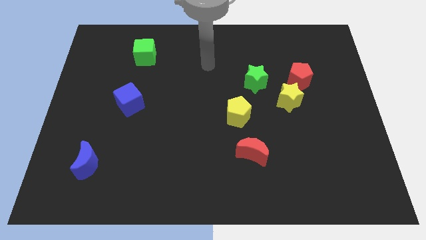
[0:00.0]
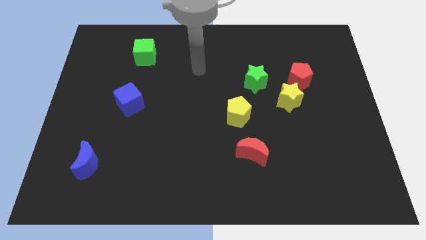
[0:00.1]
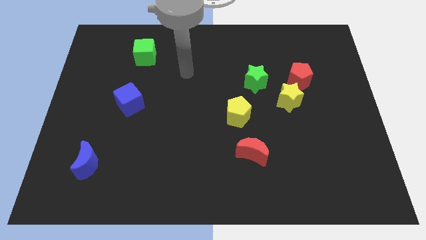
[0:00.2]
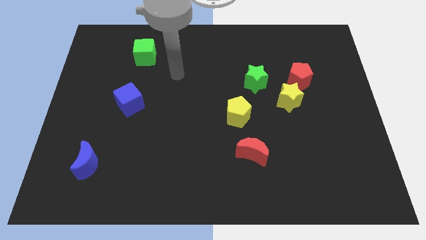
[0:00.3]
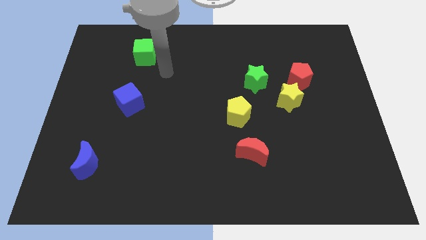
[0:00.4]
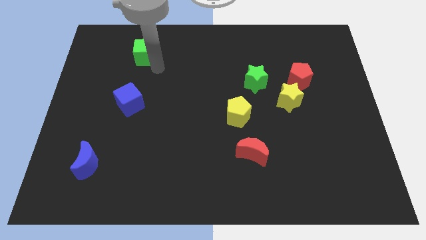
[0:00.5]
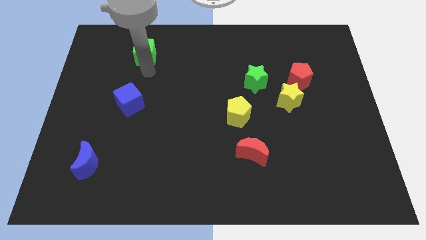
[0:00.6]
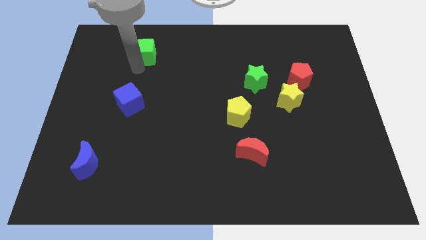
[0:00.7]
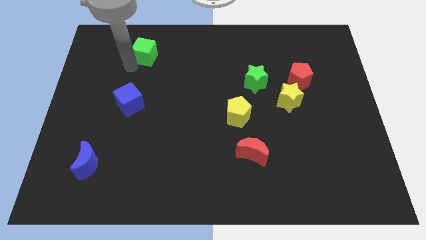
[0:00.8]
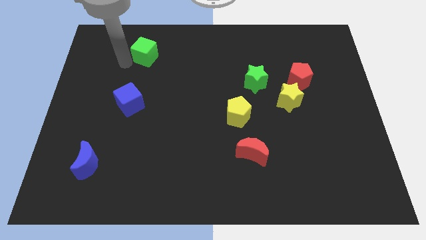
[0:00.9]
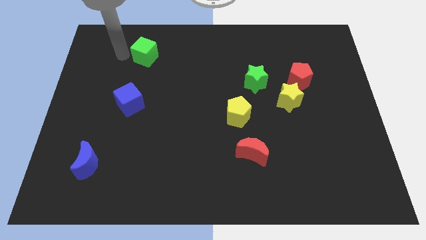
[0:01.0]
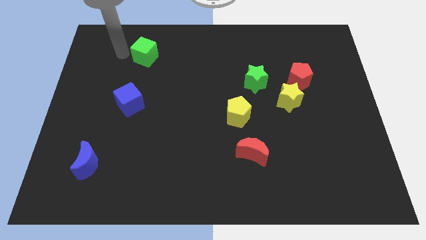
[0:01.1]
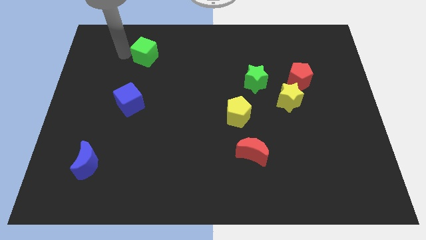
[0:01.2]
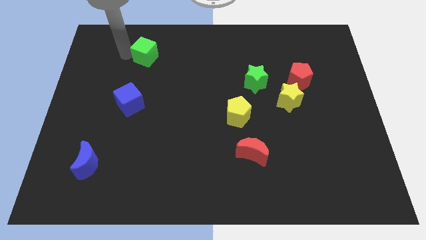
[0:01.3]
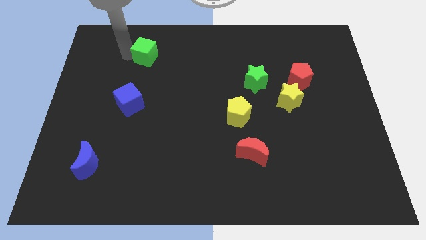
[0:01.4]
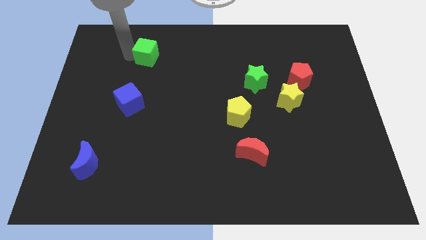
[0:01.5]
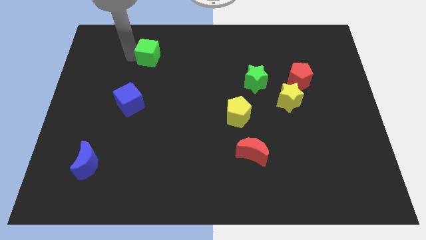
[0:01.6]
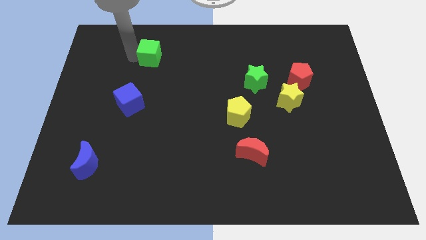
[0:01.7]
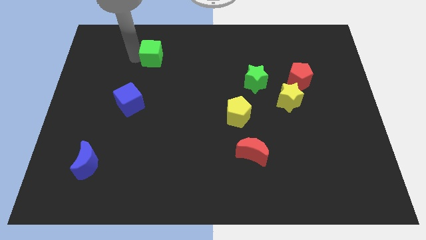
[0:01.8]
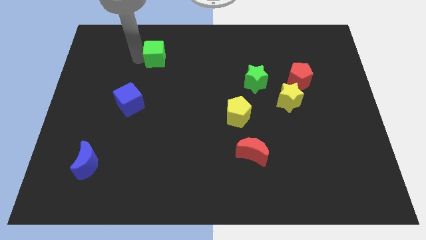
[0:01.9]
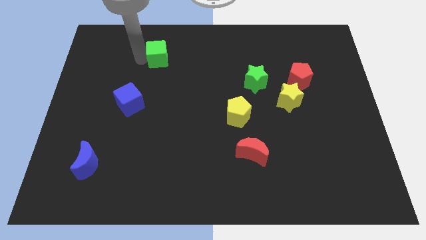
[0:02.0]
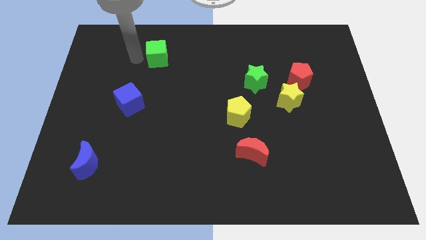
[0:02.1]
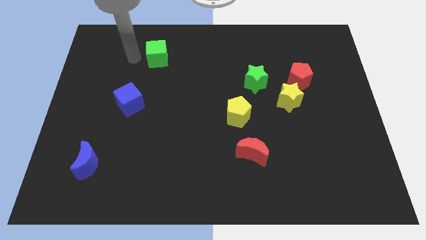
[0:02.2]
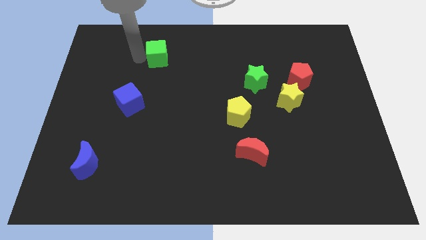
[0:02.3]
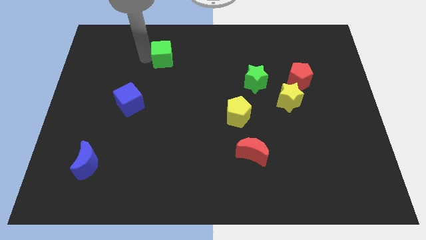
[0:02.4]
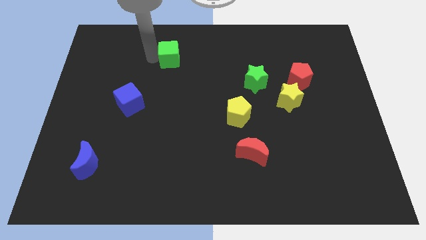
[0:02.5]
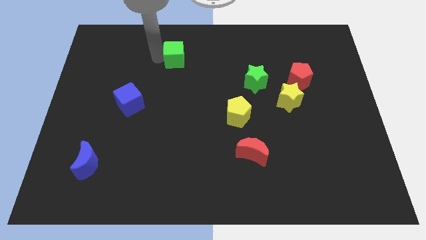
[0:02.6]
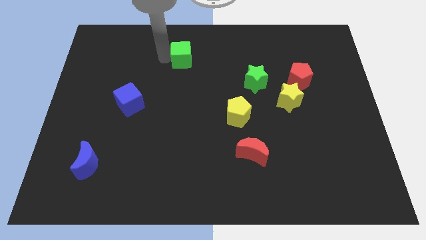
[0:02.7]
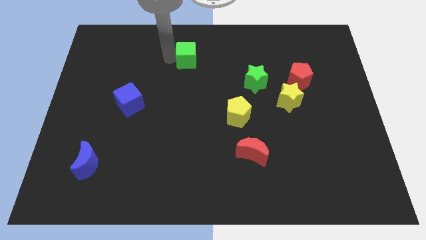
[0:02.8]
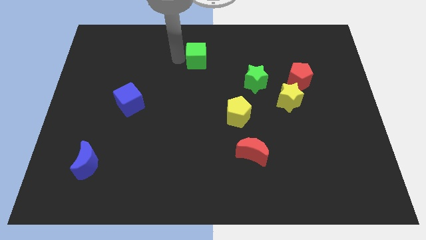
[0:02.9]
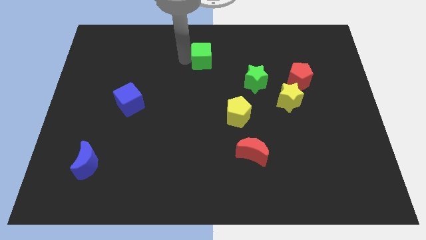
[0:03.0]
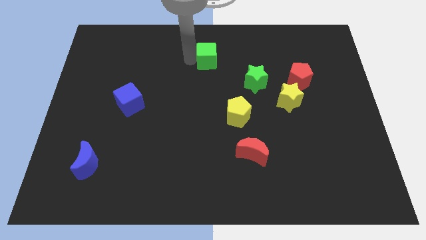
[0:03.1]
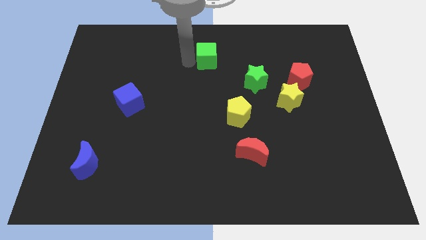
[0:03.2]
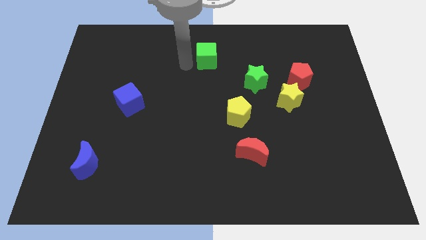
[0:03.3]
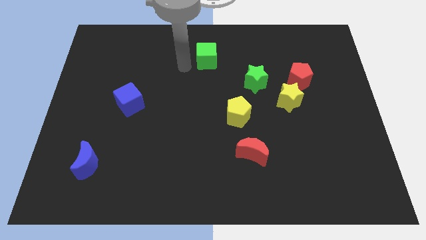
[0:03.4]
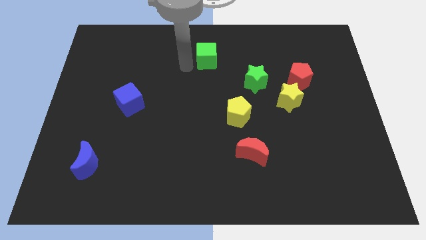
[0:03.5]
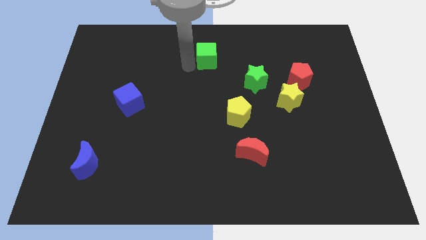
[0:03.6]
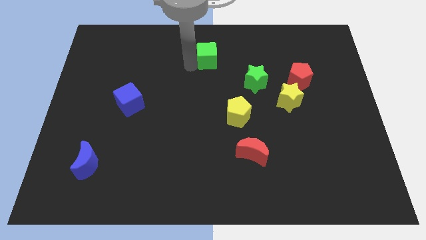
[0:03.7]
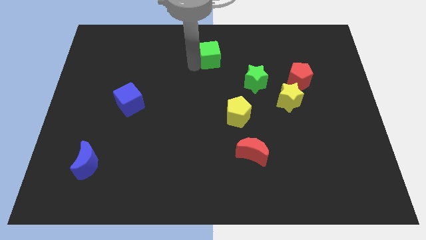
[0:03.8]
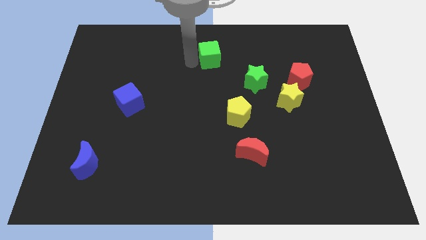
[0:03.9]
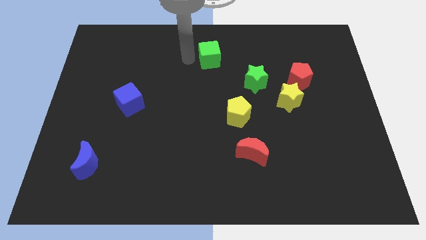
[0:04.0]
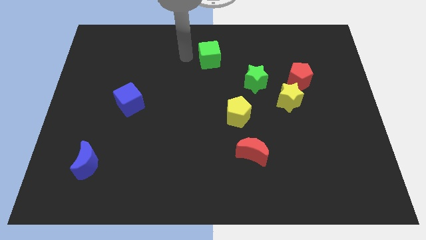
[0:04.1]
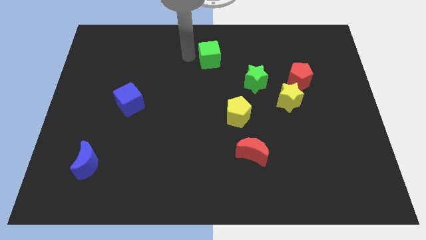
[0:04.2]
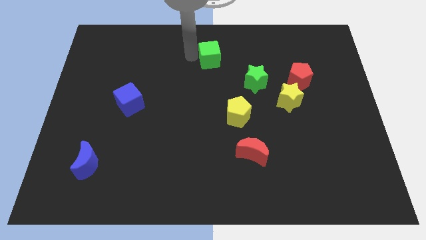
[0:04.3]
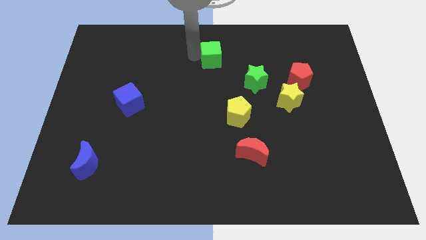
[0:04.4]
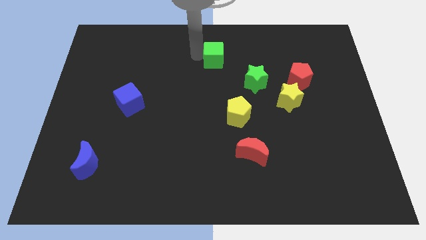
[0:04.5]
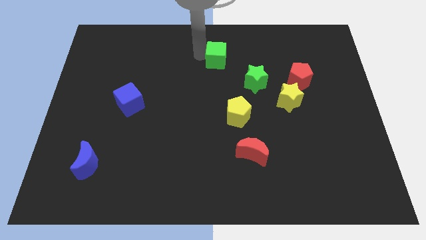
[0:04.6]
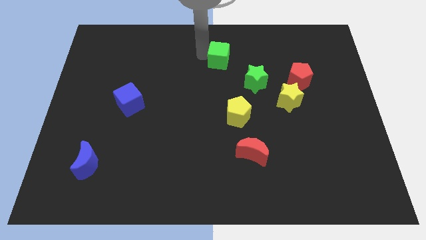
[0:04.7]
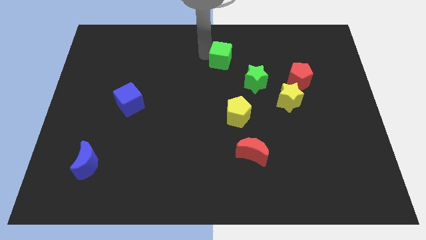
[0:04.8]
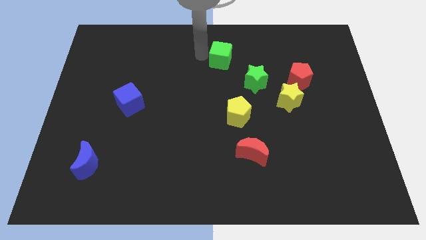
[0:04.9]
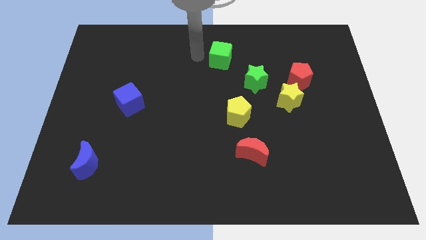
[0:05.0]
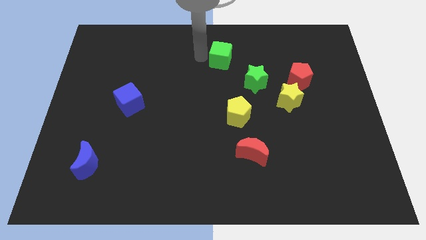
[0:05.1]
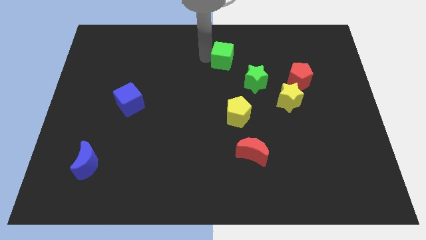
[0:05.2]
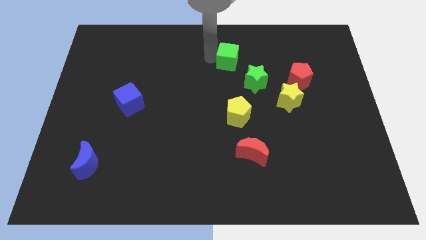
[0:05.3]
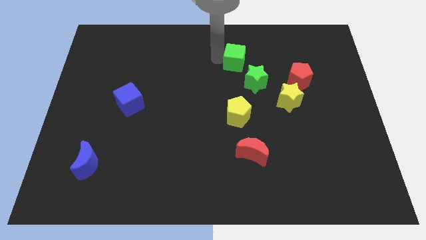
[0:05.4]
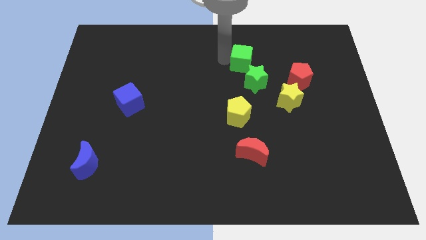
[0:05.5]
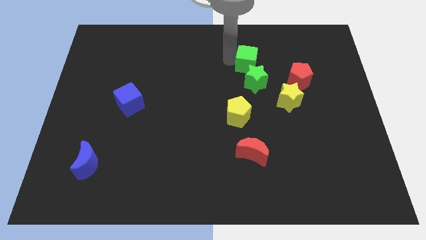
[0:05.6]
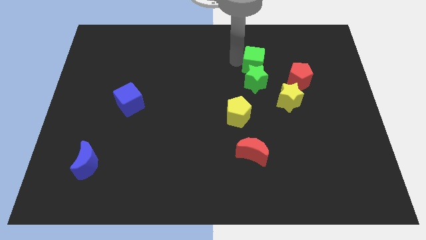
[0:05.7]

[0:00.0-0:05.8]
slide the green cube diagonally up and to the right of the green star

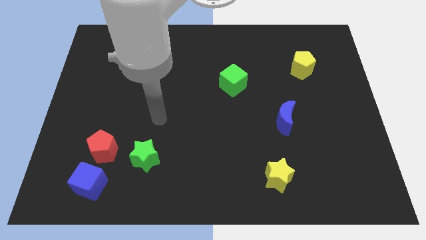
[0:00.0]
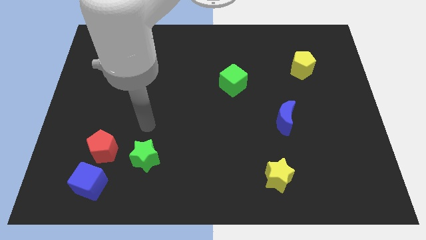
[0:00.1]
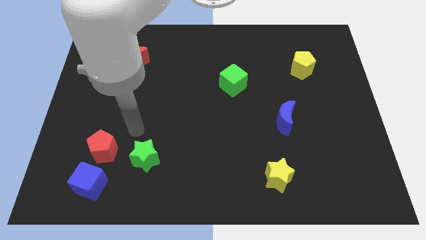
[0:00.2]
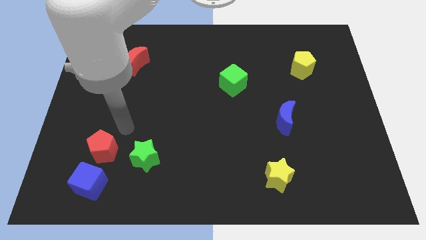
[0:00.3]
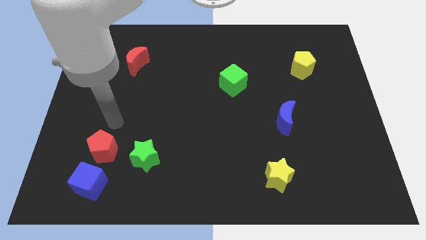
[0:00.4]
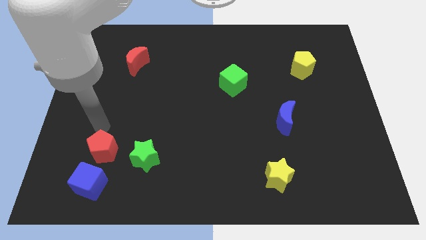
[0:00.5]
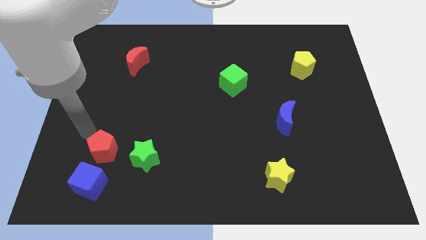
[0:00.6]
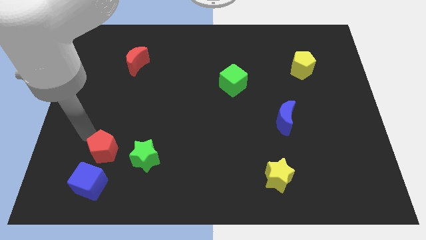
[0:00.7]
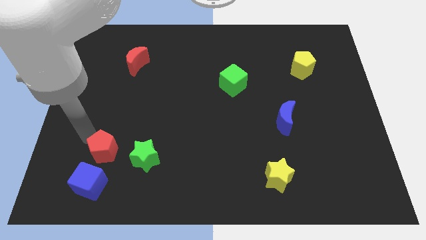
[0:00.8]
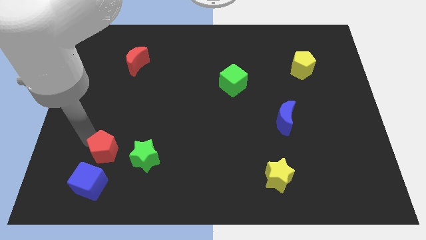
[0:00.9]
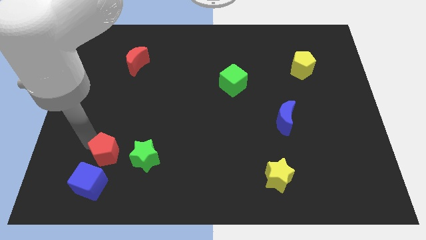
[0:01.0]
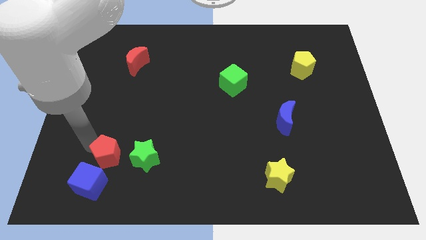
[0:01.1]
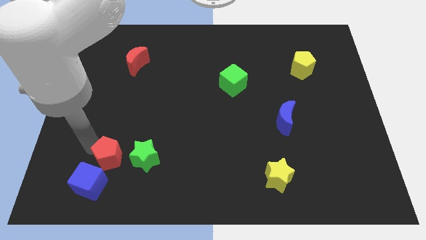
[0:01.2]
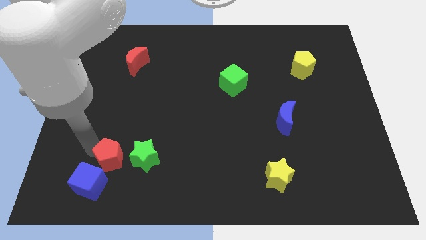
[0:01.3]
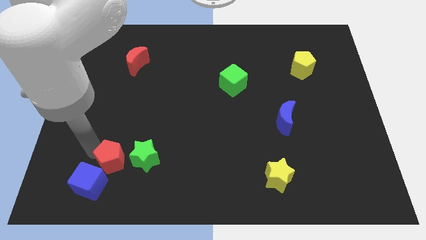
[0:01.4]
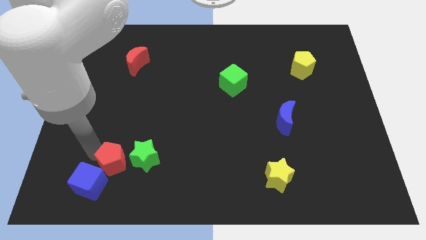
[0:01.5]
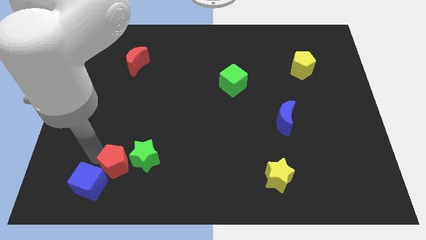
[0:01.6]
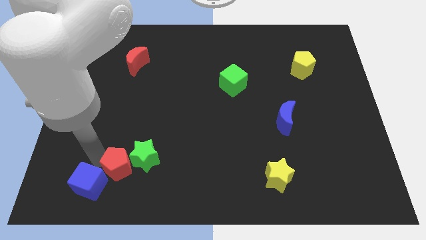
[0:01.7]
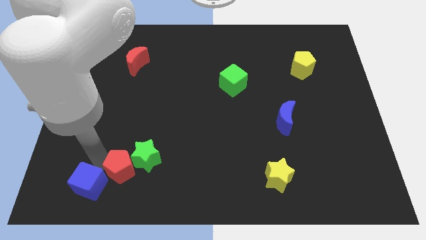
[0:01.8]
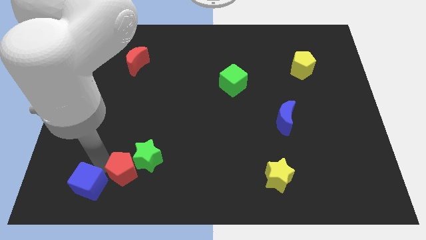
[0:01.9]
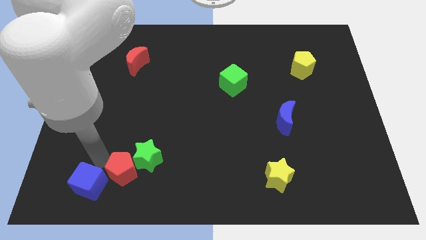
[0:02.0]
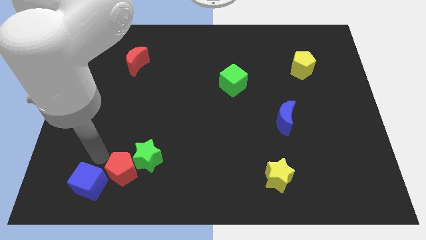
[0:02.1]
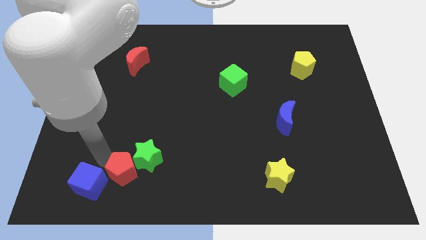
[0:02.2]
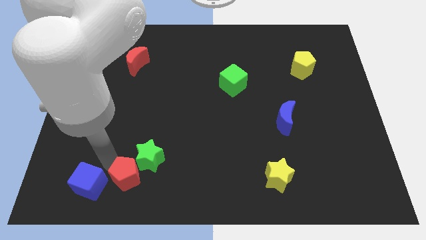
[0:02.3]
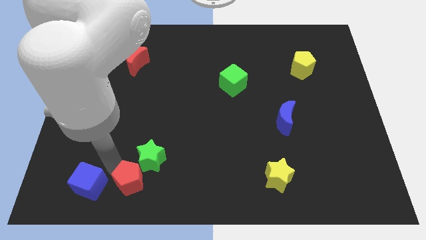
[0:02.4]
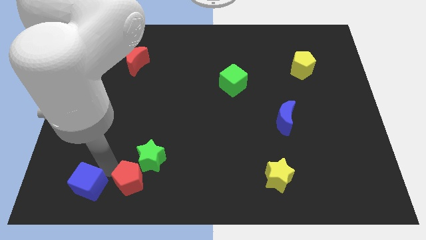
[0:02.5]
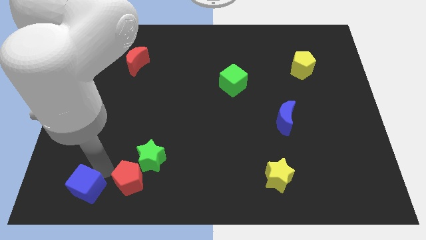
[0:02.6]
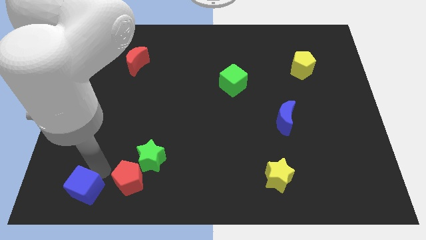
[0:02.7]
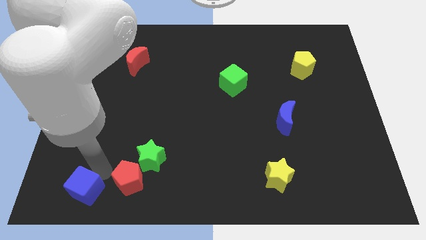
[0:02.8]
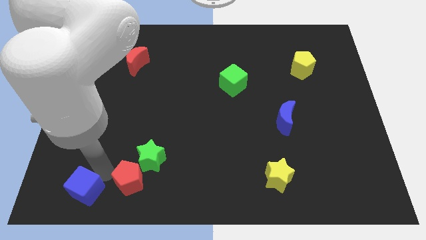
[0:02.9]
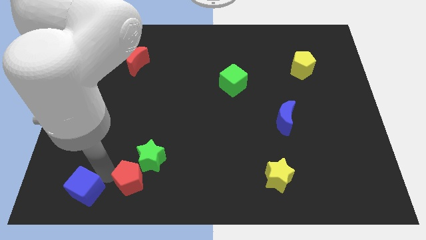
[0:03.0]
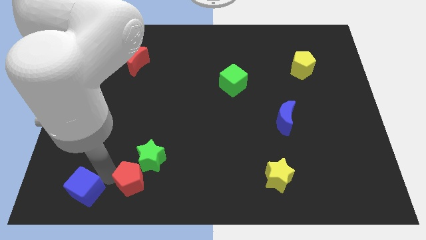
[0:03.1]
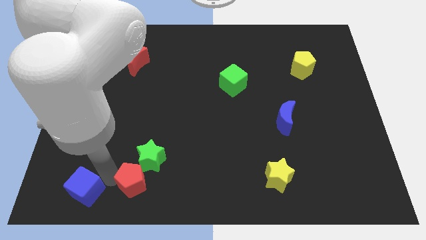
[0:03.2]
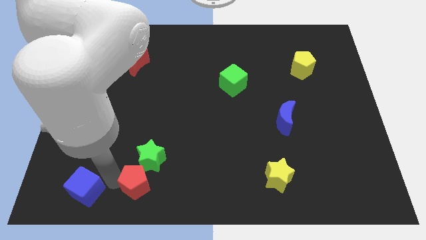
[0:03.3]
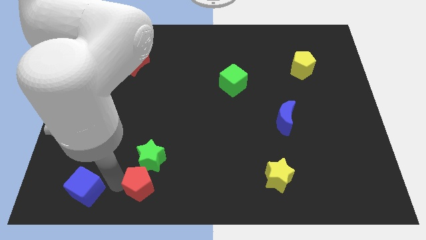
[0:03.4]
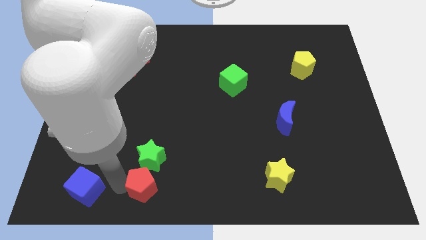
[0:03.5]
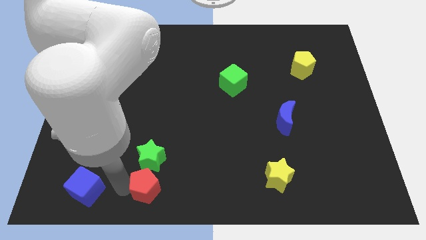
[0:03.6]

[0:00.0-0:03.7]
put the red pentagon to the bottom right side of the green star
